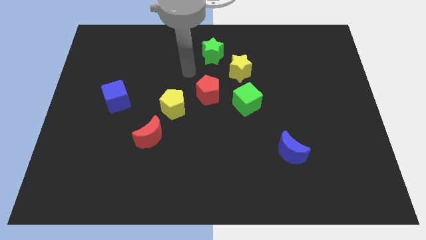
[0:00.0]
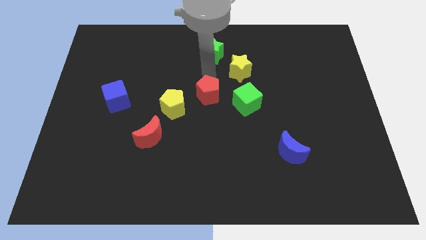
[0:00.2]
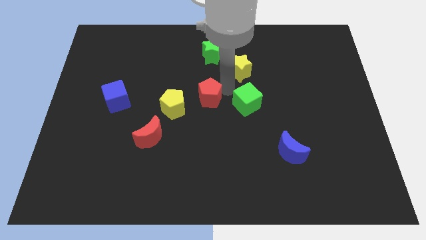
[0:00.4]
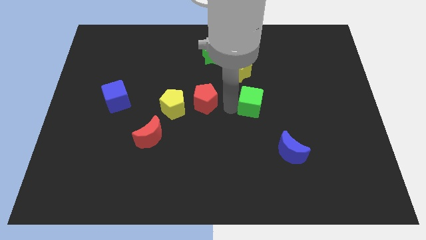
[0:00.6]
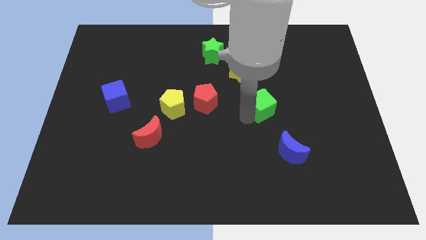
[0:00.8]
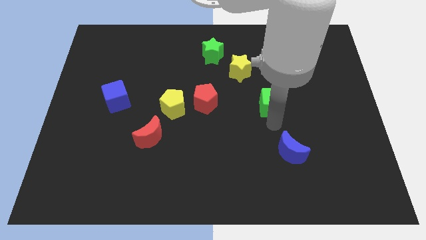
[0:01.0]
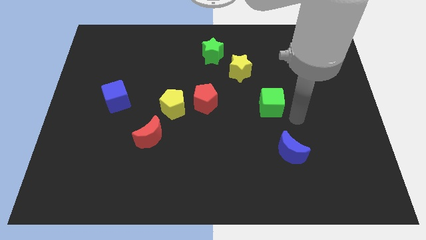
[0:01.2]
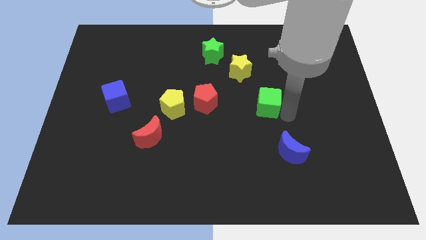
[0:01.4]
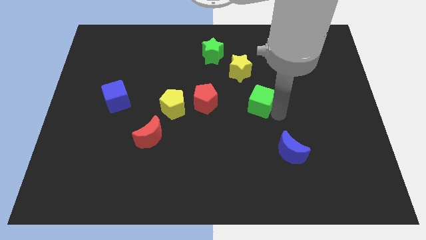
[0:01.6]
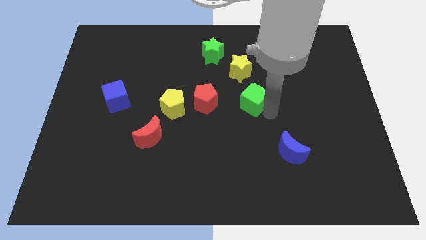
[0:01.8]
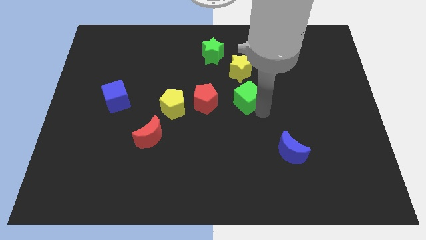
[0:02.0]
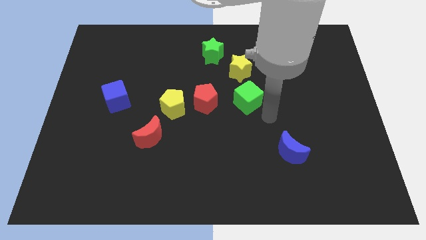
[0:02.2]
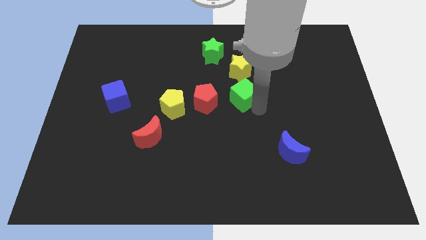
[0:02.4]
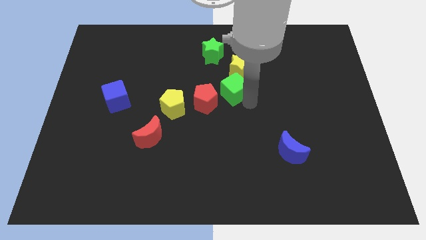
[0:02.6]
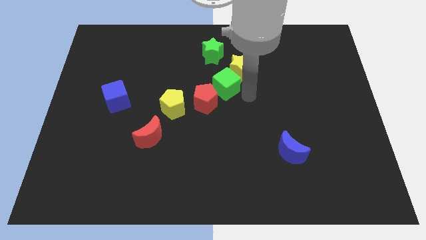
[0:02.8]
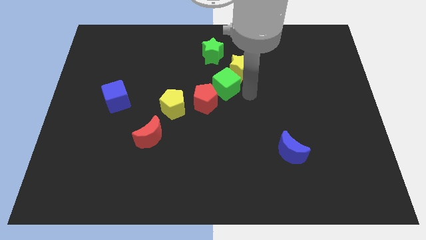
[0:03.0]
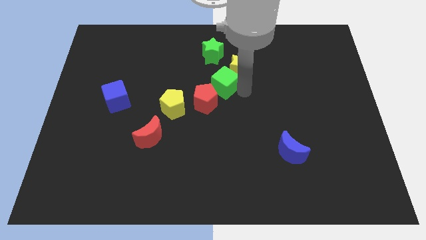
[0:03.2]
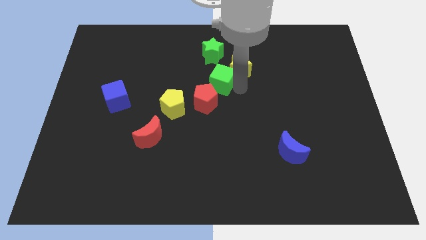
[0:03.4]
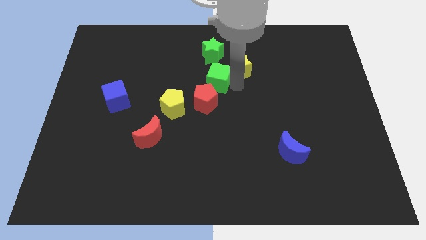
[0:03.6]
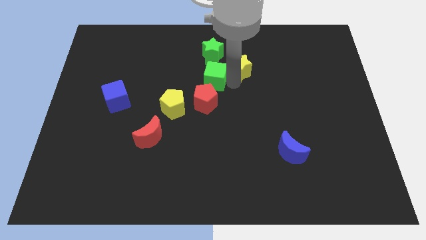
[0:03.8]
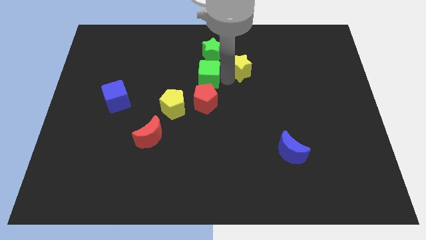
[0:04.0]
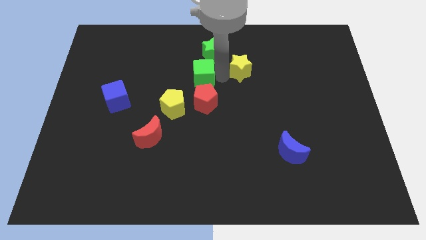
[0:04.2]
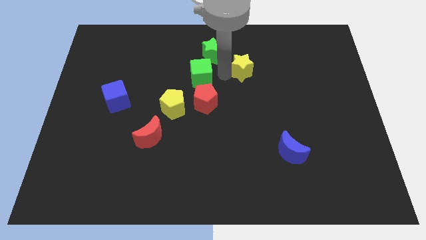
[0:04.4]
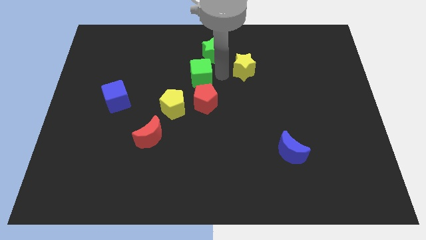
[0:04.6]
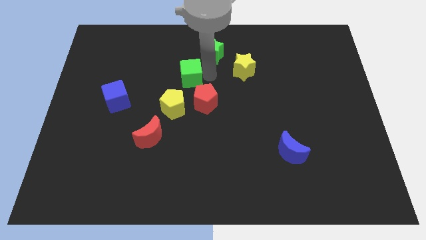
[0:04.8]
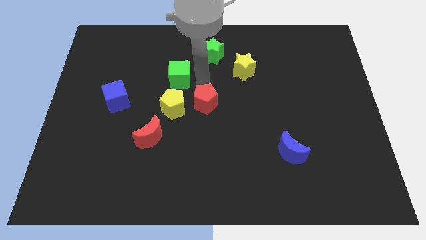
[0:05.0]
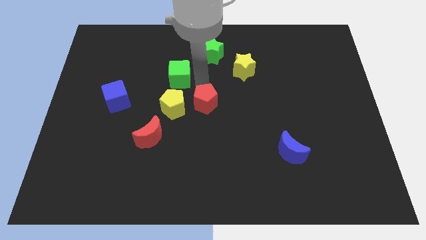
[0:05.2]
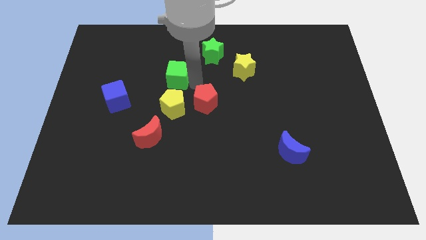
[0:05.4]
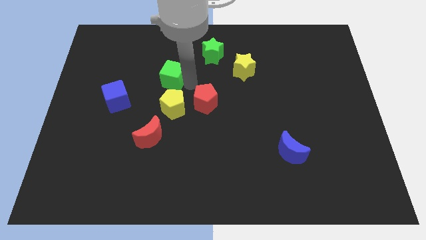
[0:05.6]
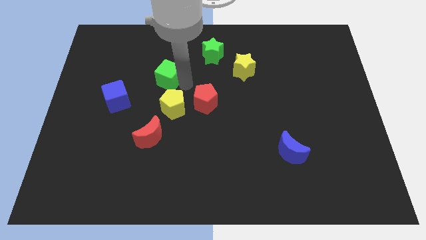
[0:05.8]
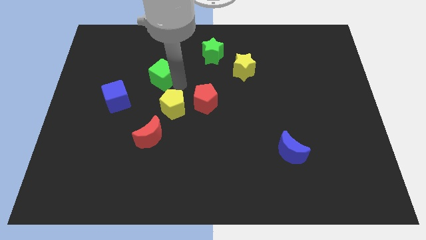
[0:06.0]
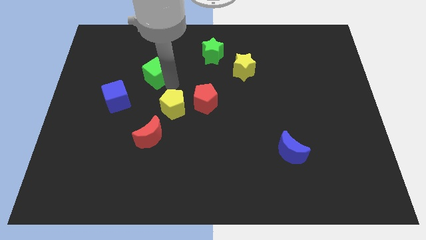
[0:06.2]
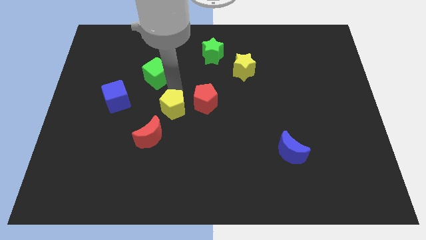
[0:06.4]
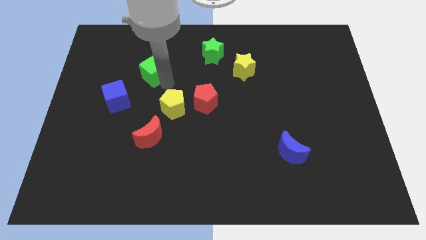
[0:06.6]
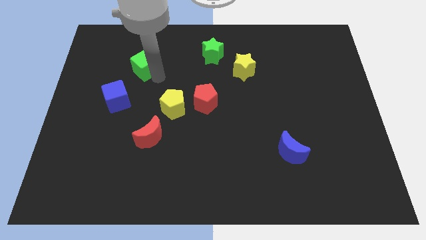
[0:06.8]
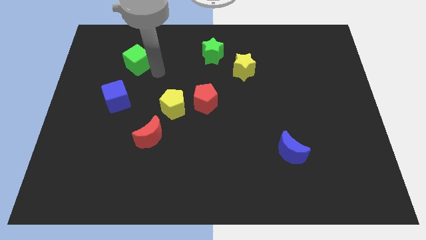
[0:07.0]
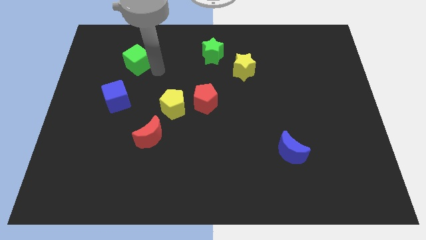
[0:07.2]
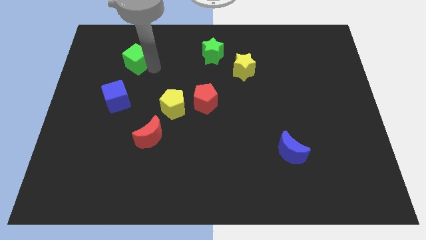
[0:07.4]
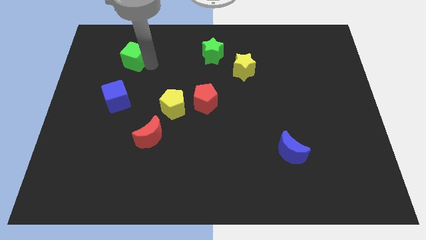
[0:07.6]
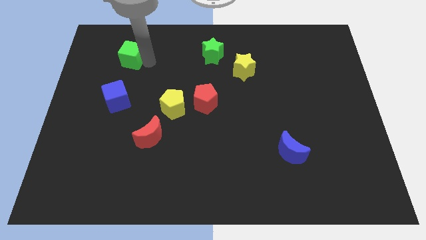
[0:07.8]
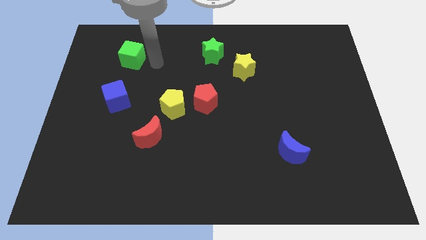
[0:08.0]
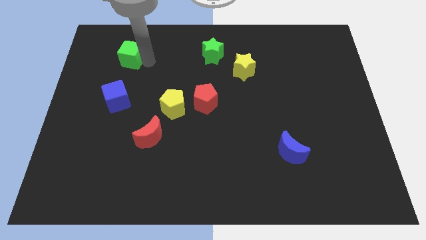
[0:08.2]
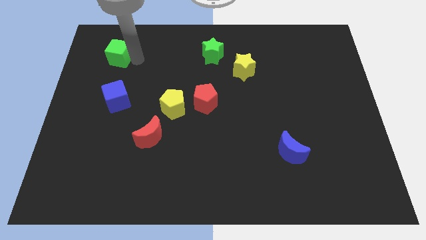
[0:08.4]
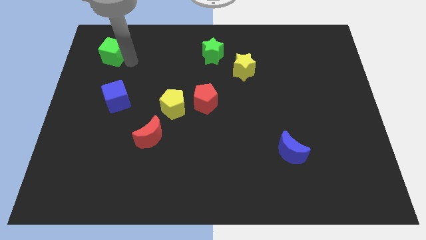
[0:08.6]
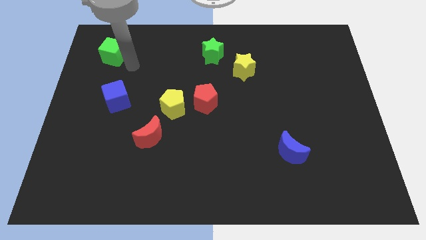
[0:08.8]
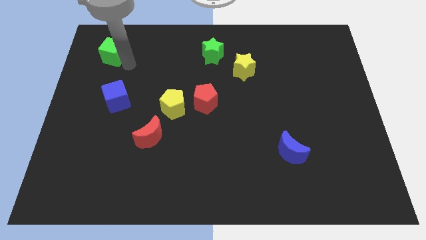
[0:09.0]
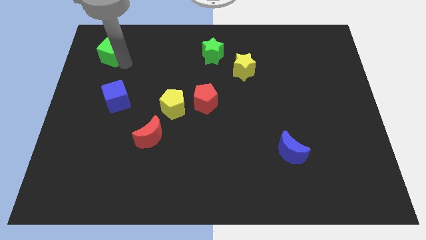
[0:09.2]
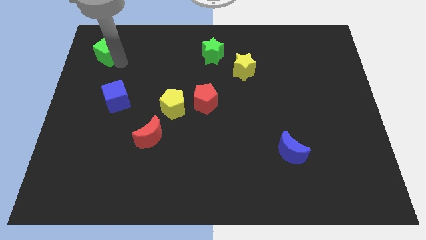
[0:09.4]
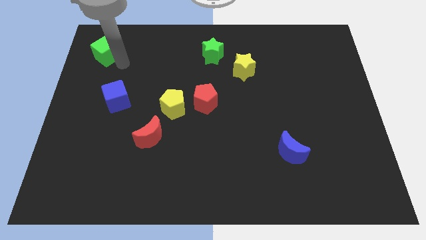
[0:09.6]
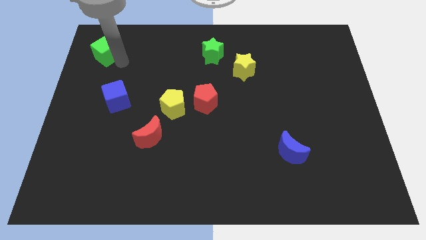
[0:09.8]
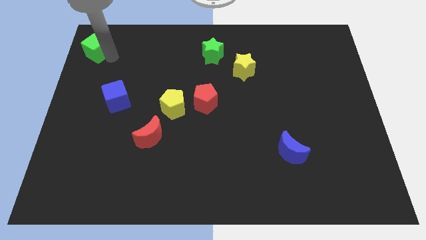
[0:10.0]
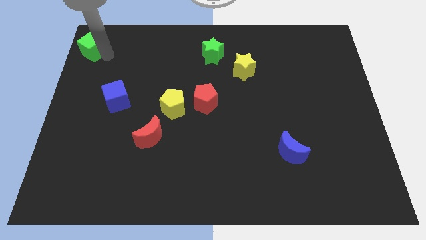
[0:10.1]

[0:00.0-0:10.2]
move the green cube to the top left corner

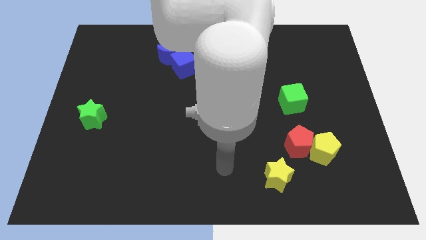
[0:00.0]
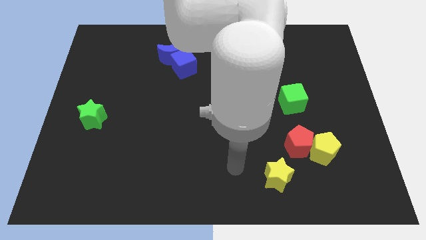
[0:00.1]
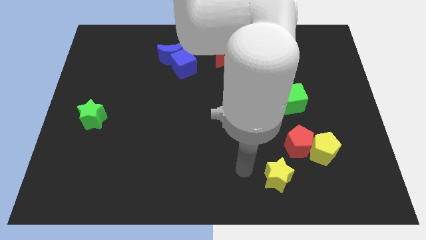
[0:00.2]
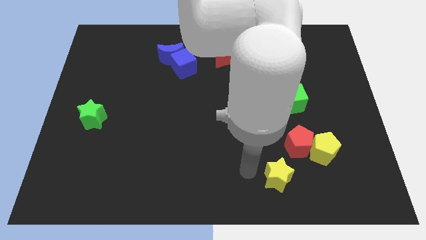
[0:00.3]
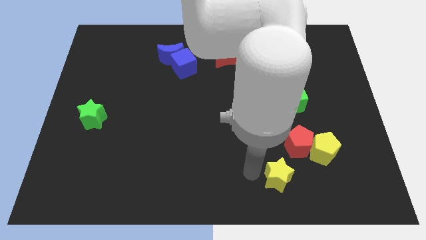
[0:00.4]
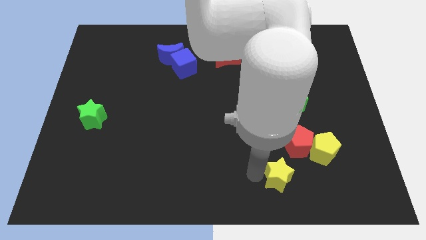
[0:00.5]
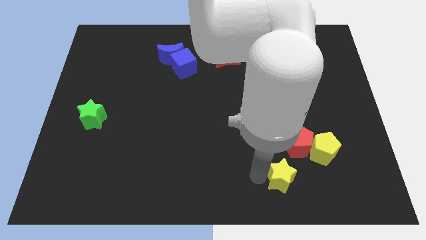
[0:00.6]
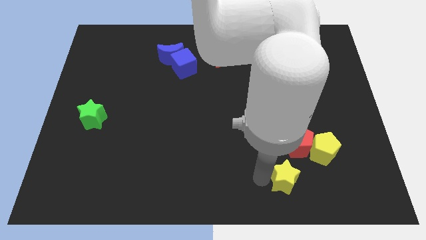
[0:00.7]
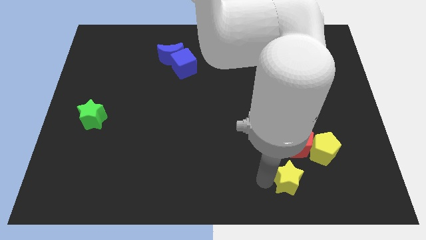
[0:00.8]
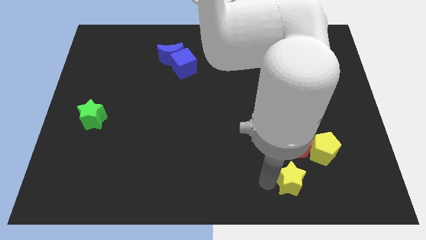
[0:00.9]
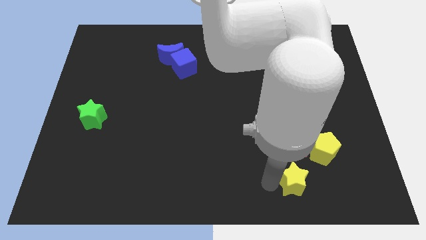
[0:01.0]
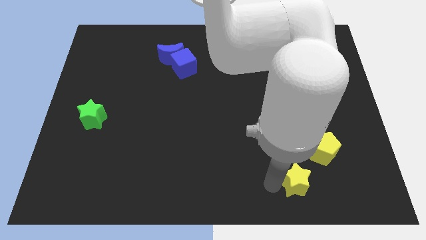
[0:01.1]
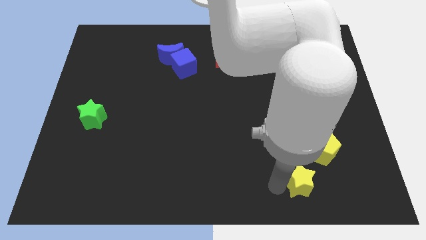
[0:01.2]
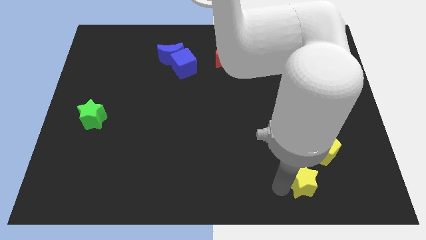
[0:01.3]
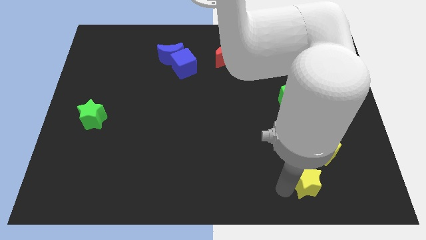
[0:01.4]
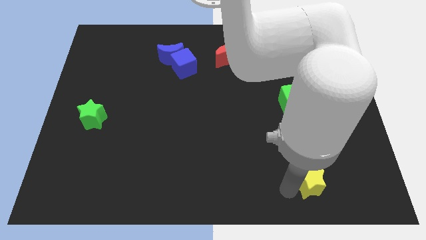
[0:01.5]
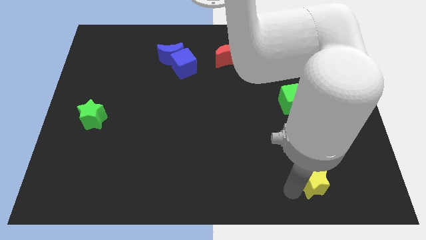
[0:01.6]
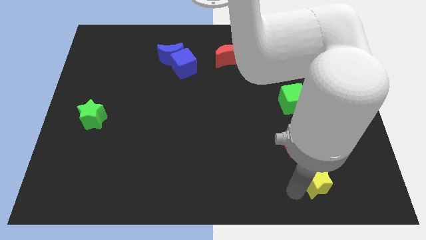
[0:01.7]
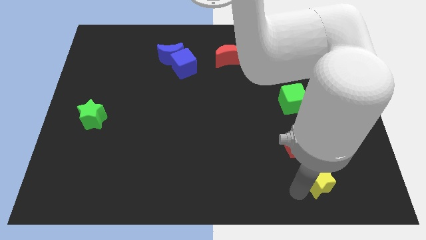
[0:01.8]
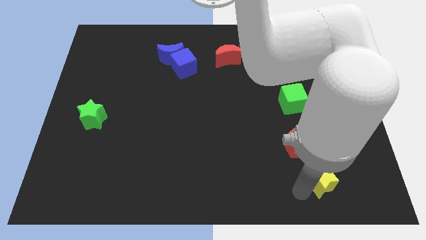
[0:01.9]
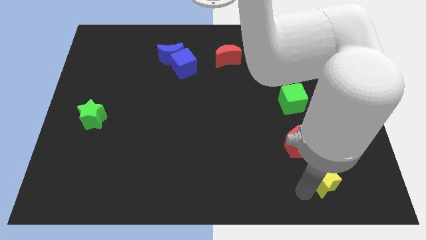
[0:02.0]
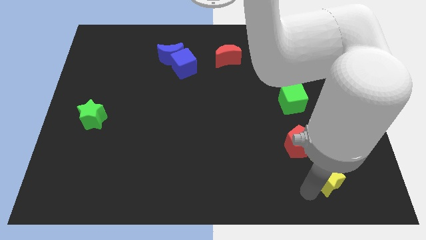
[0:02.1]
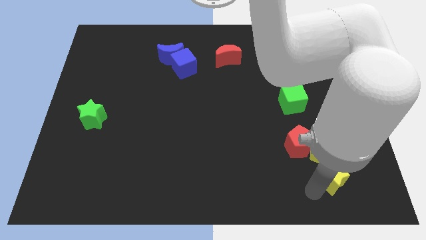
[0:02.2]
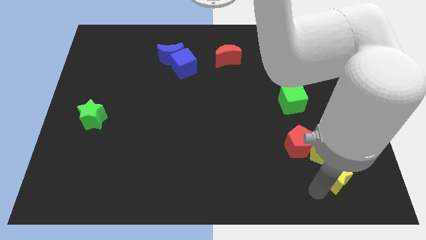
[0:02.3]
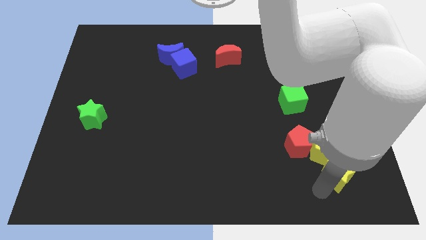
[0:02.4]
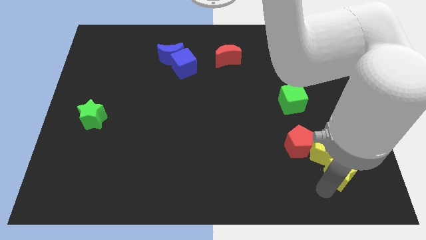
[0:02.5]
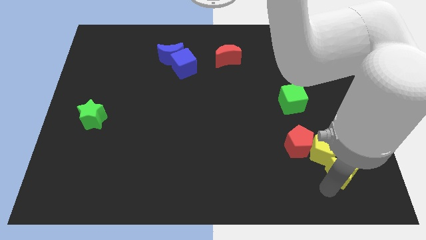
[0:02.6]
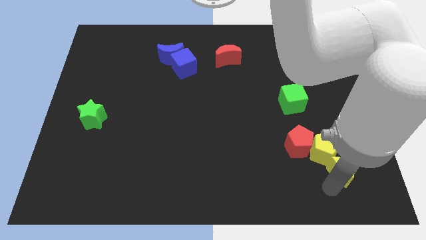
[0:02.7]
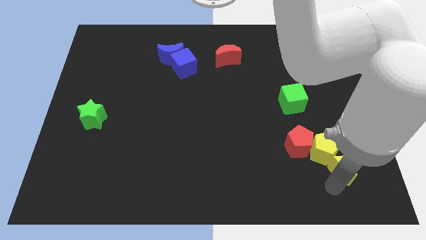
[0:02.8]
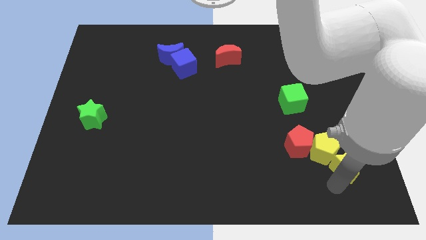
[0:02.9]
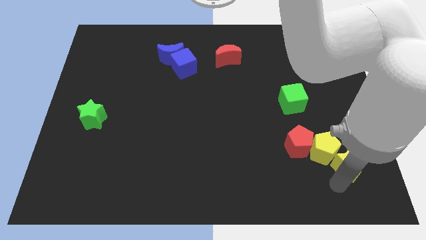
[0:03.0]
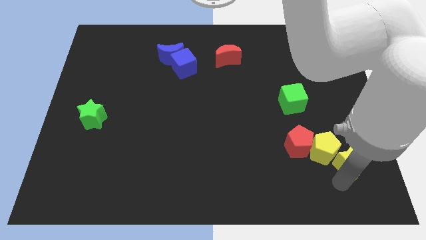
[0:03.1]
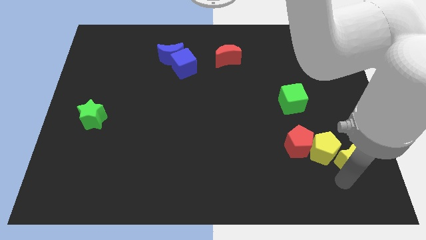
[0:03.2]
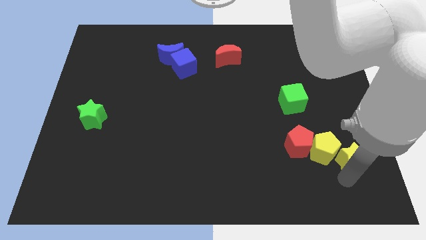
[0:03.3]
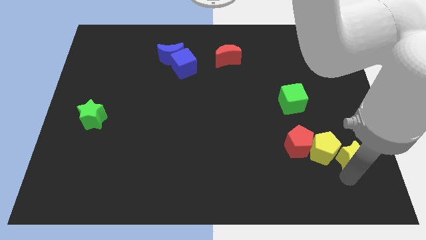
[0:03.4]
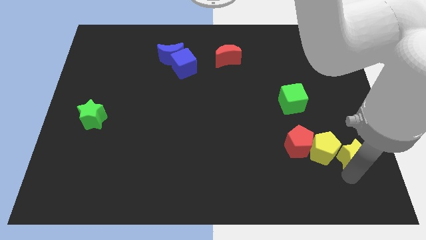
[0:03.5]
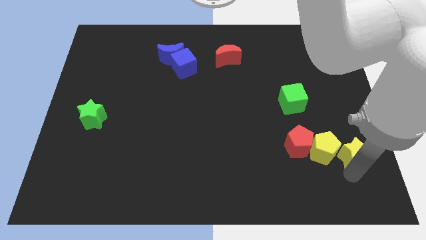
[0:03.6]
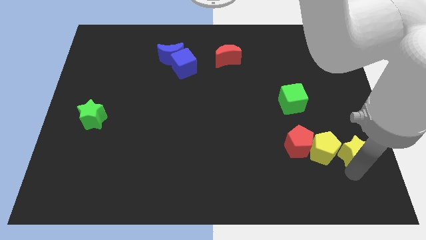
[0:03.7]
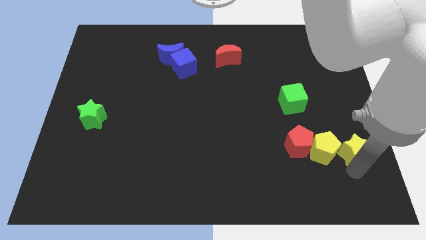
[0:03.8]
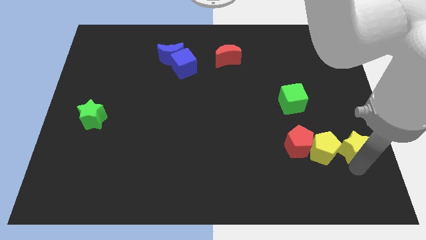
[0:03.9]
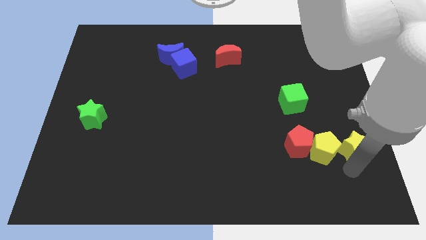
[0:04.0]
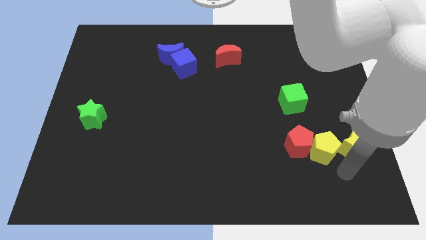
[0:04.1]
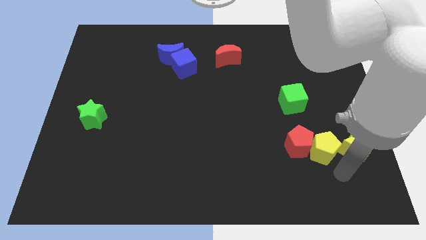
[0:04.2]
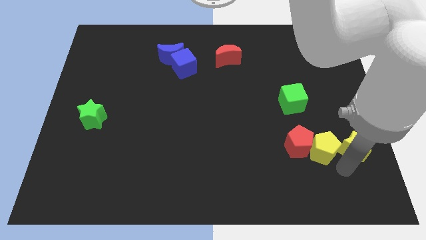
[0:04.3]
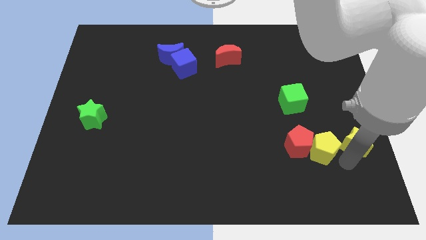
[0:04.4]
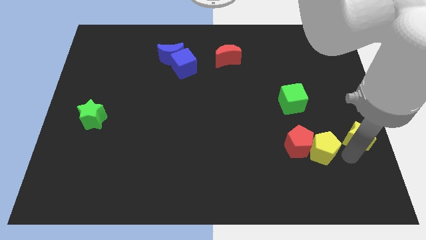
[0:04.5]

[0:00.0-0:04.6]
put the yellow star to the right side of the board
